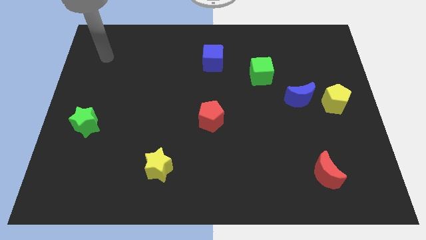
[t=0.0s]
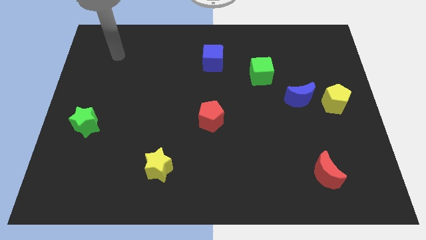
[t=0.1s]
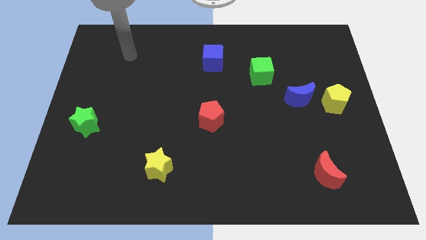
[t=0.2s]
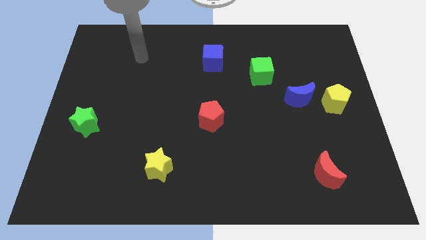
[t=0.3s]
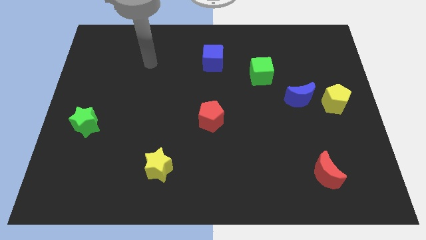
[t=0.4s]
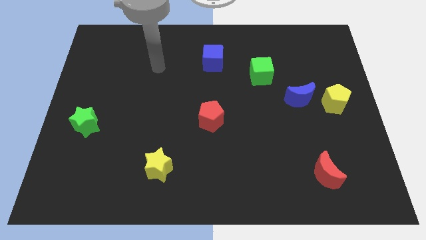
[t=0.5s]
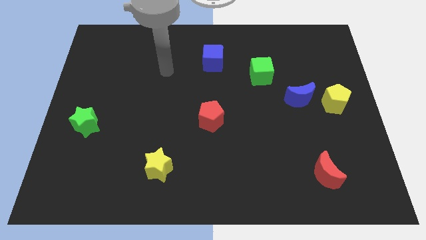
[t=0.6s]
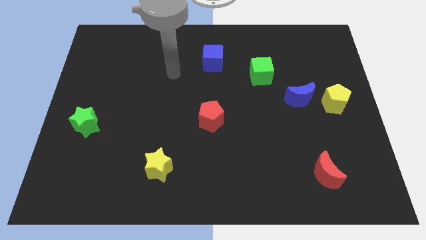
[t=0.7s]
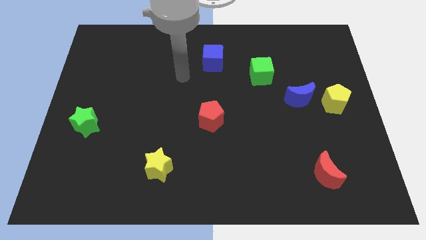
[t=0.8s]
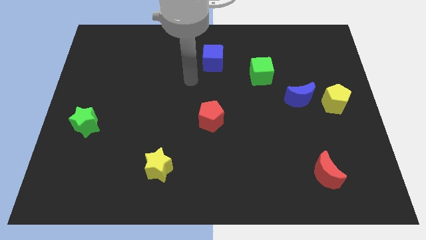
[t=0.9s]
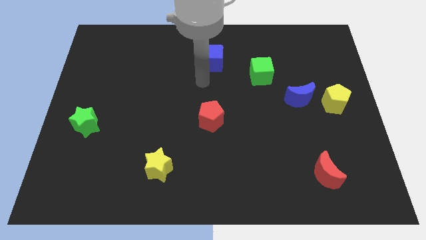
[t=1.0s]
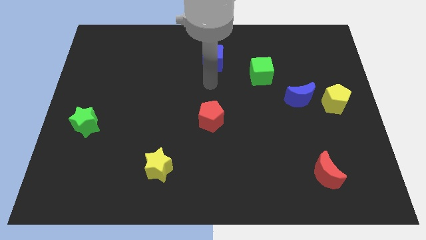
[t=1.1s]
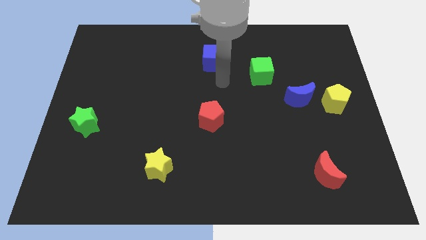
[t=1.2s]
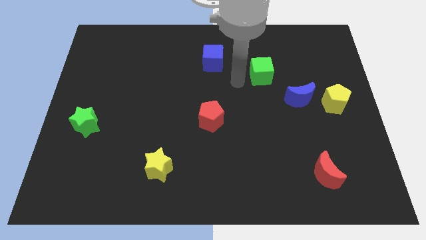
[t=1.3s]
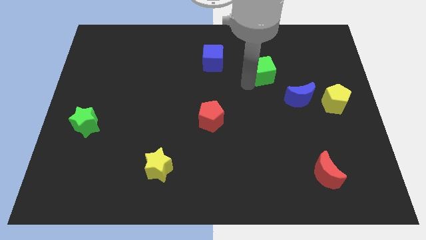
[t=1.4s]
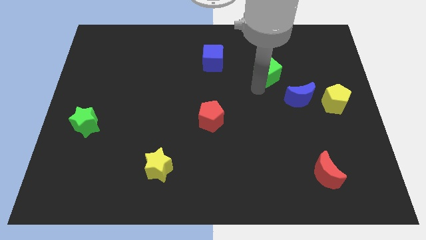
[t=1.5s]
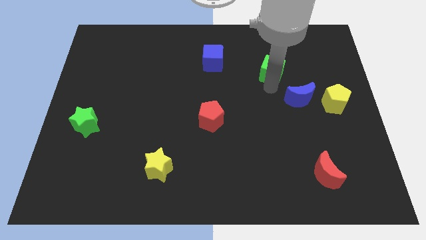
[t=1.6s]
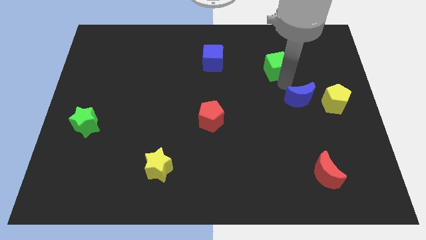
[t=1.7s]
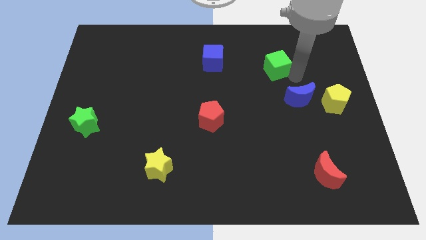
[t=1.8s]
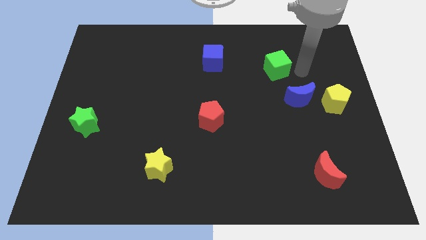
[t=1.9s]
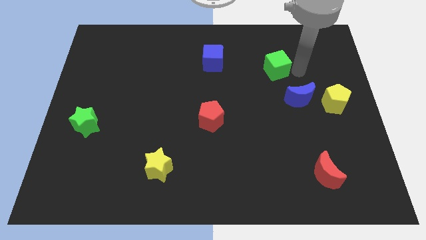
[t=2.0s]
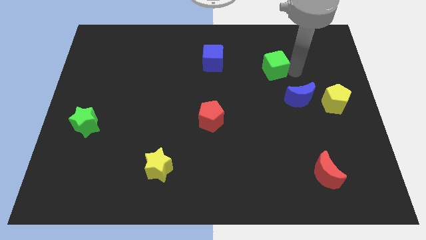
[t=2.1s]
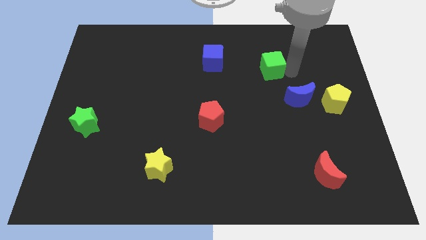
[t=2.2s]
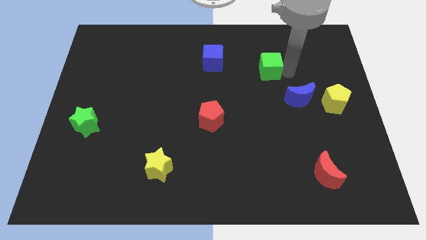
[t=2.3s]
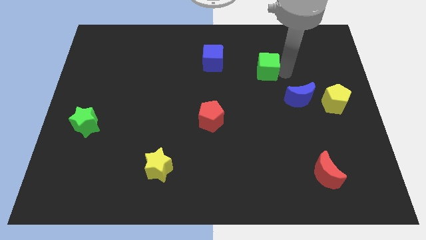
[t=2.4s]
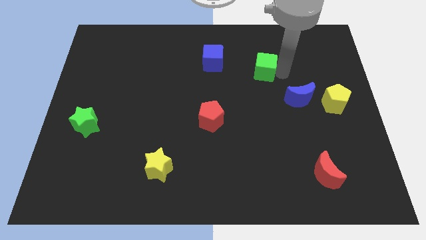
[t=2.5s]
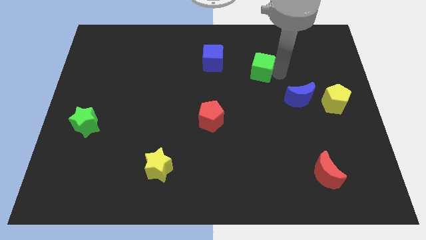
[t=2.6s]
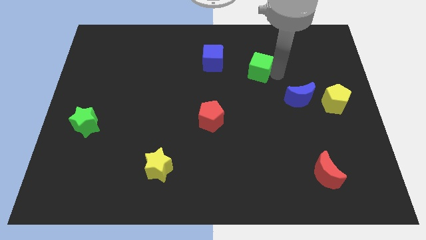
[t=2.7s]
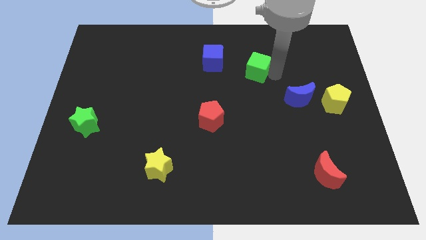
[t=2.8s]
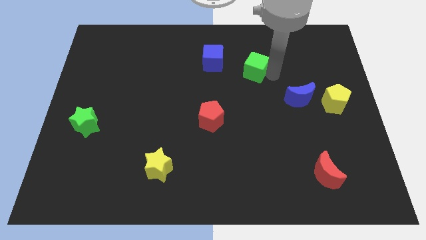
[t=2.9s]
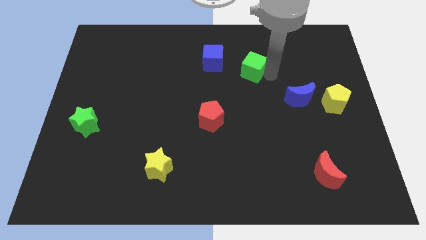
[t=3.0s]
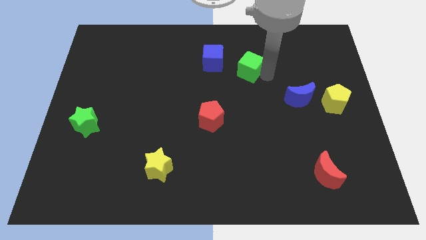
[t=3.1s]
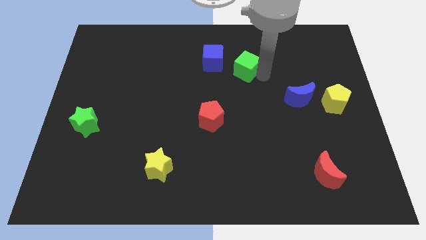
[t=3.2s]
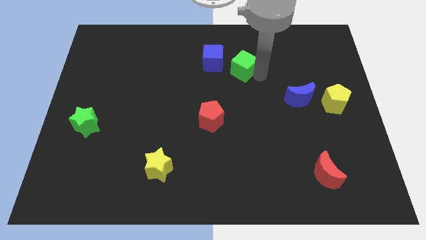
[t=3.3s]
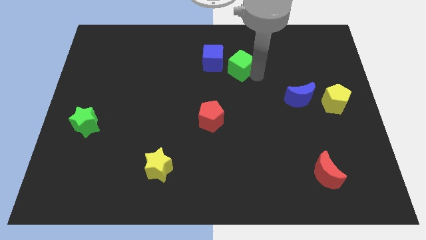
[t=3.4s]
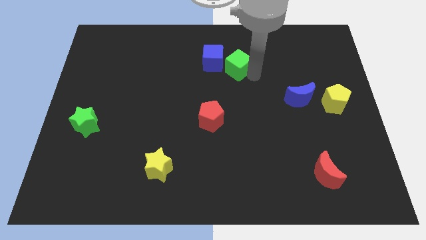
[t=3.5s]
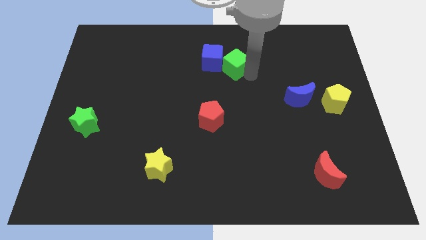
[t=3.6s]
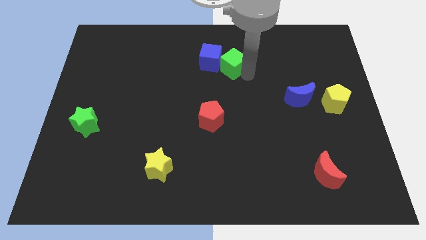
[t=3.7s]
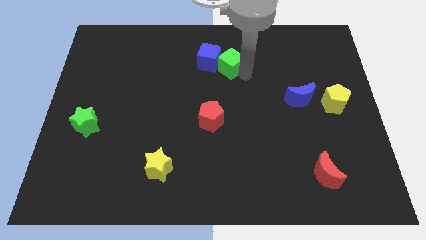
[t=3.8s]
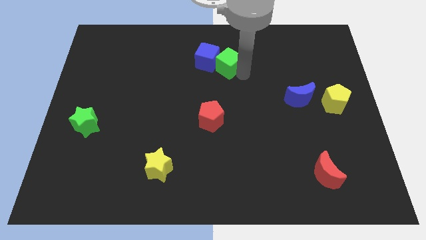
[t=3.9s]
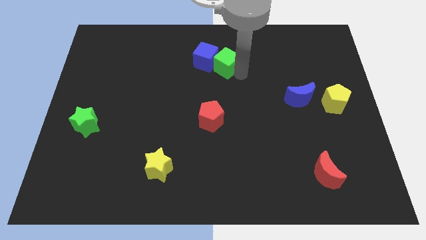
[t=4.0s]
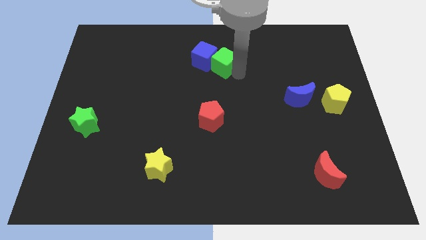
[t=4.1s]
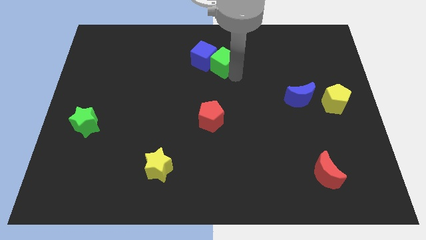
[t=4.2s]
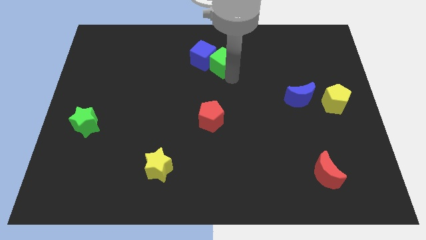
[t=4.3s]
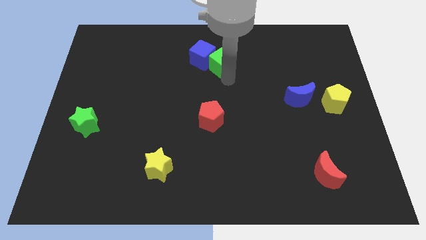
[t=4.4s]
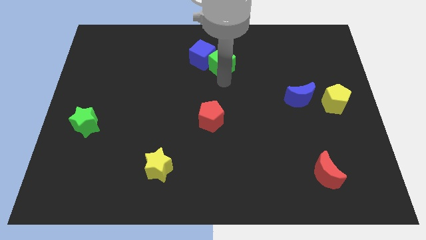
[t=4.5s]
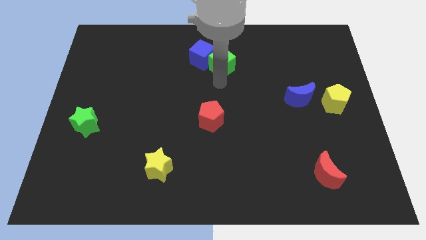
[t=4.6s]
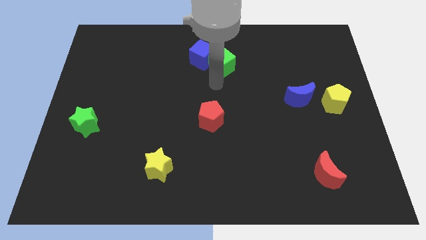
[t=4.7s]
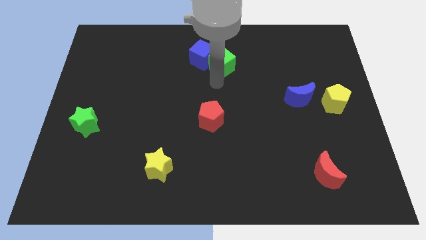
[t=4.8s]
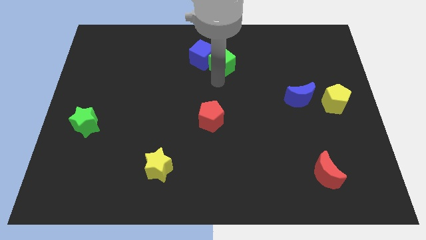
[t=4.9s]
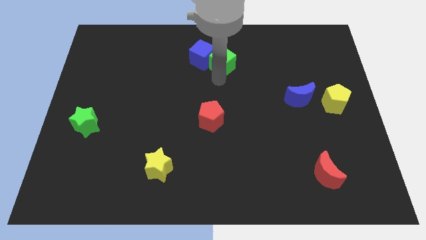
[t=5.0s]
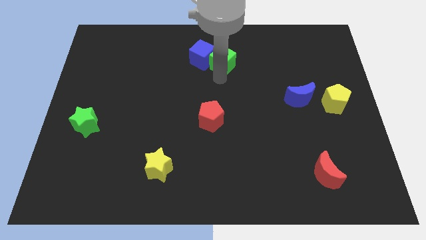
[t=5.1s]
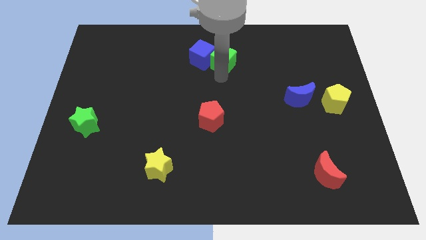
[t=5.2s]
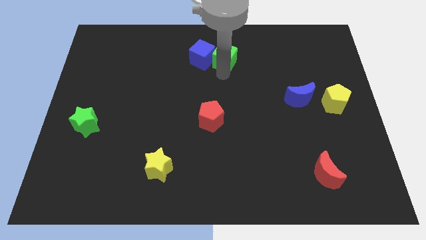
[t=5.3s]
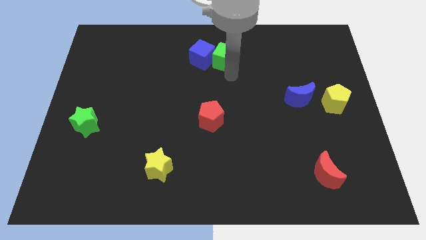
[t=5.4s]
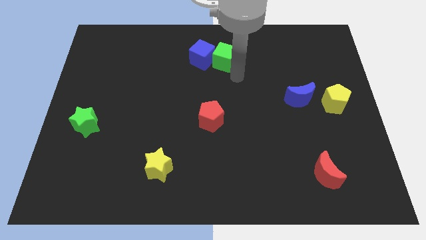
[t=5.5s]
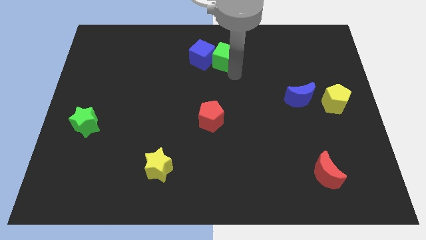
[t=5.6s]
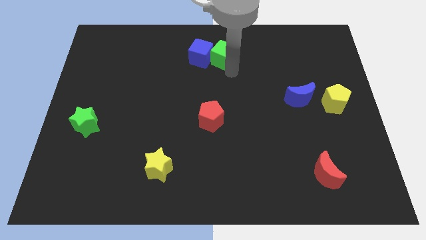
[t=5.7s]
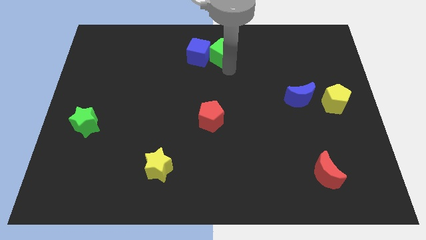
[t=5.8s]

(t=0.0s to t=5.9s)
put the green cube to the top side

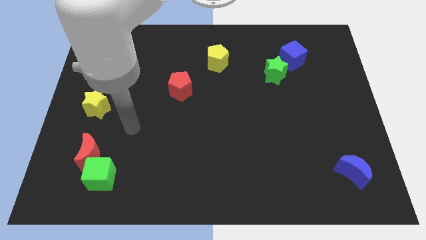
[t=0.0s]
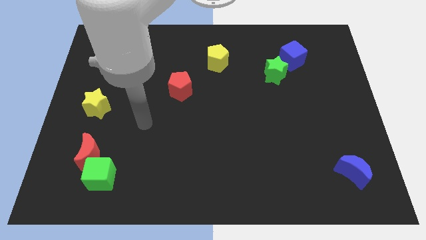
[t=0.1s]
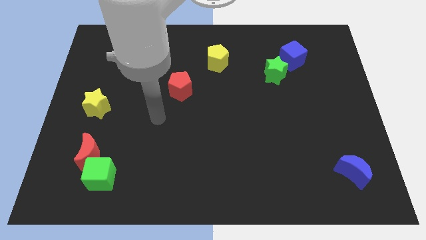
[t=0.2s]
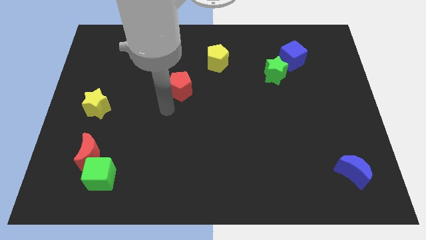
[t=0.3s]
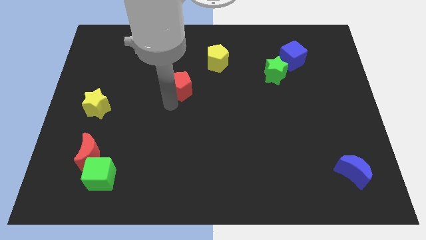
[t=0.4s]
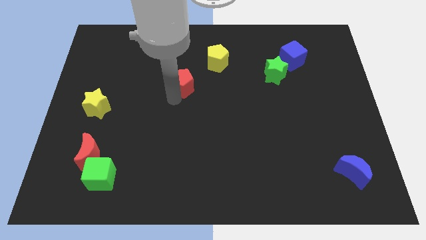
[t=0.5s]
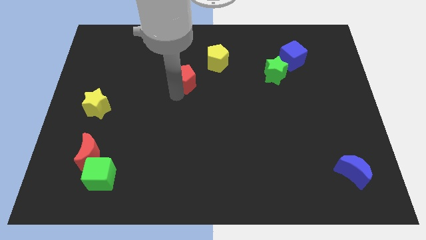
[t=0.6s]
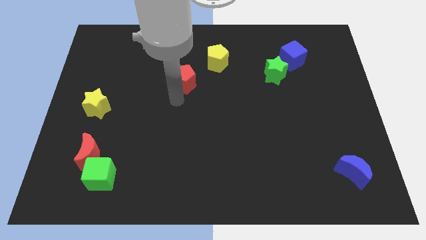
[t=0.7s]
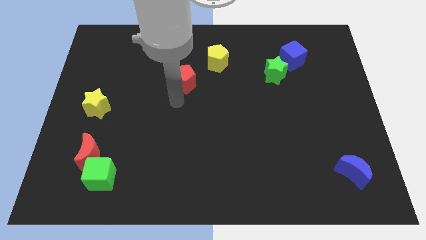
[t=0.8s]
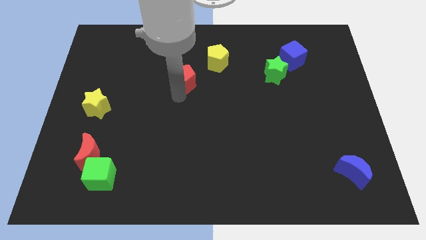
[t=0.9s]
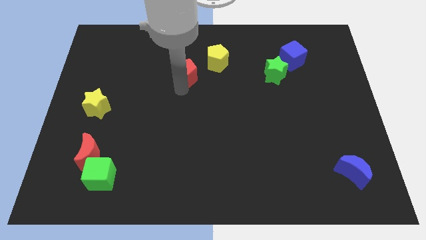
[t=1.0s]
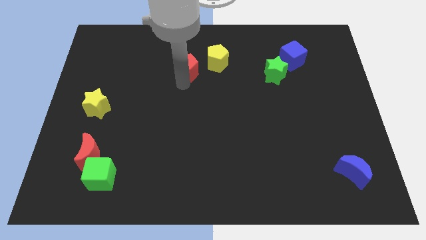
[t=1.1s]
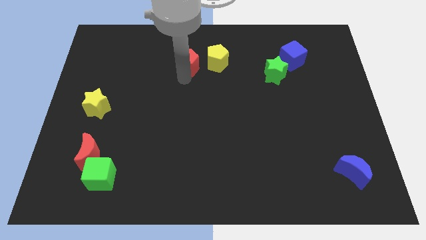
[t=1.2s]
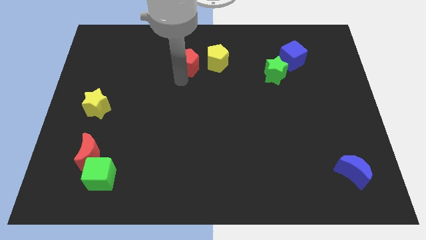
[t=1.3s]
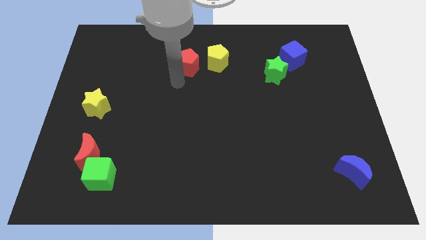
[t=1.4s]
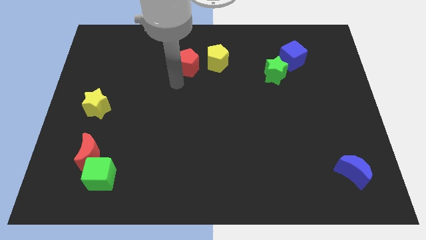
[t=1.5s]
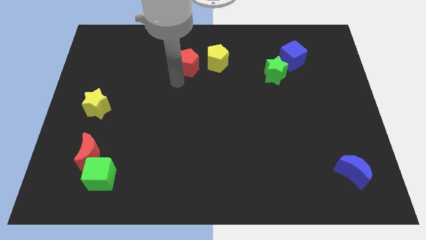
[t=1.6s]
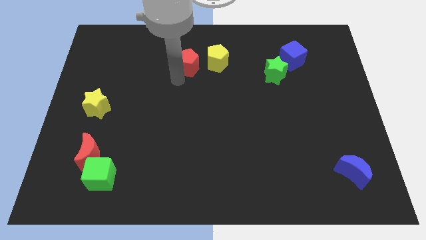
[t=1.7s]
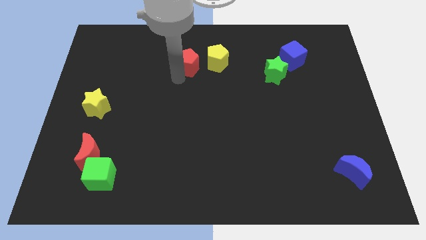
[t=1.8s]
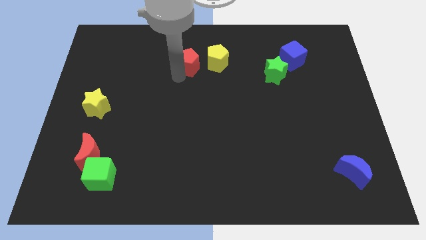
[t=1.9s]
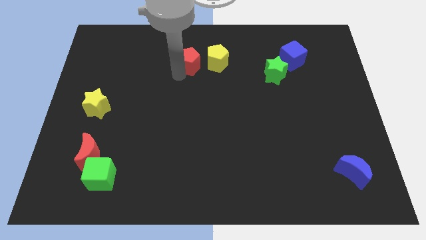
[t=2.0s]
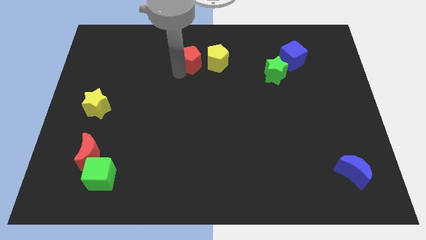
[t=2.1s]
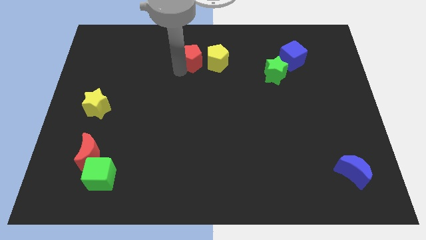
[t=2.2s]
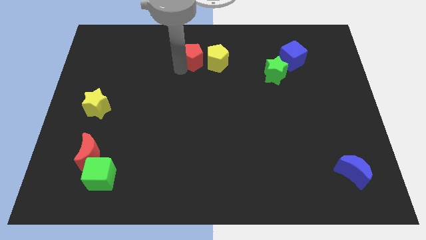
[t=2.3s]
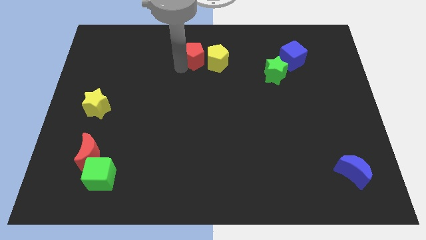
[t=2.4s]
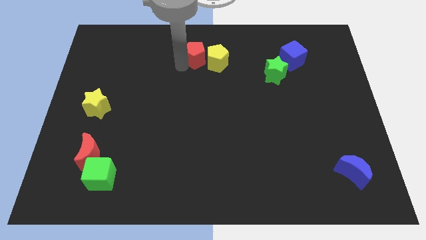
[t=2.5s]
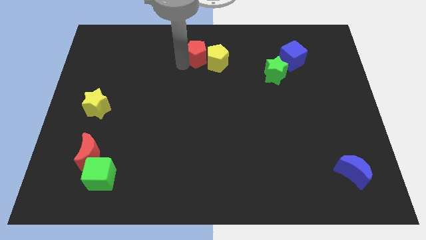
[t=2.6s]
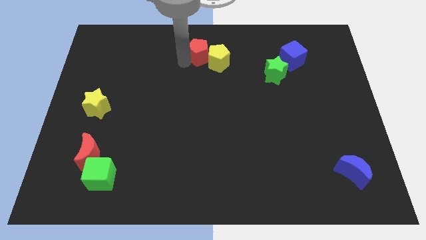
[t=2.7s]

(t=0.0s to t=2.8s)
push the red pentagon to the top side
